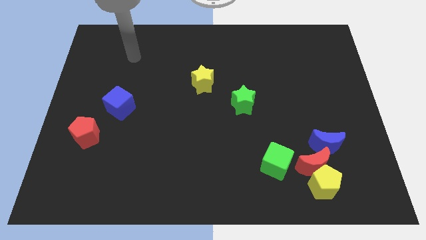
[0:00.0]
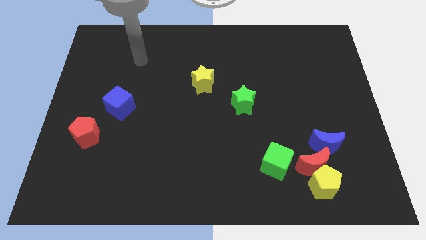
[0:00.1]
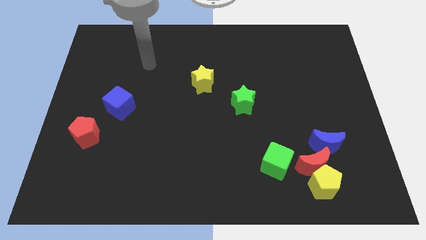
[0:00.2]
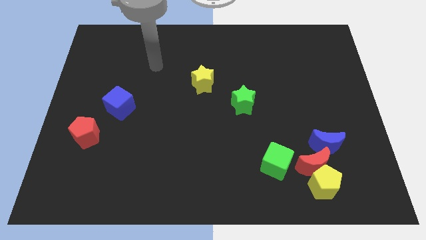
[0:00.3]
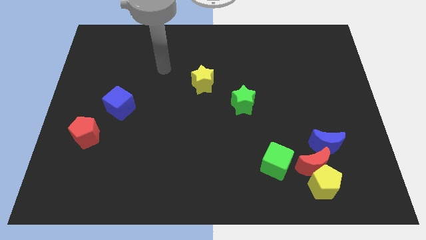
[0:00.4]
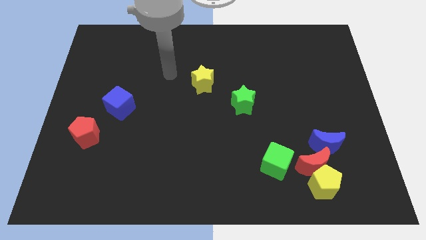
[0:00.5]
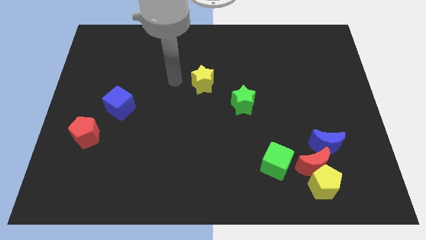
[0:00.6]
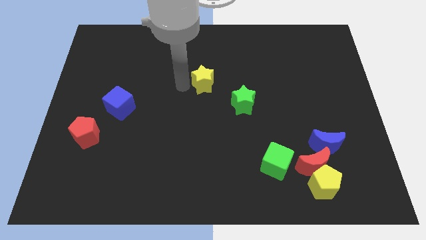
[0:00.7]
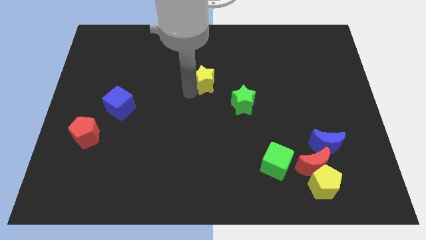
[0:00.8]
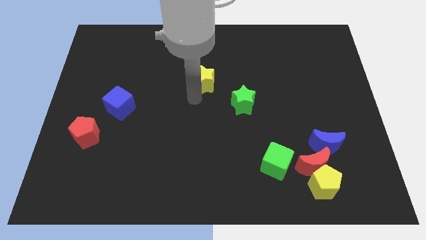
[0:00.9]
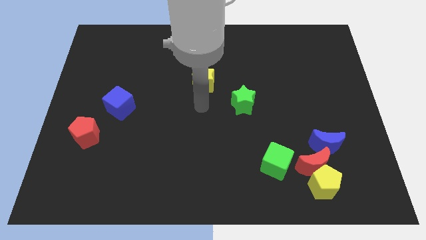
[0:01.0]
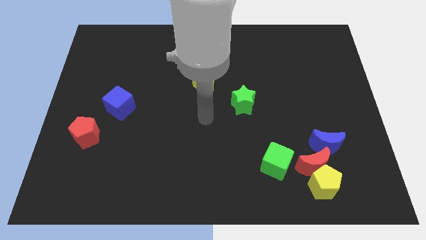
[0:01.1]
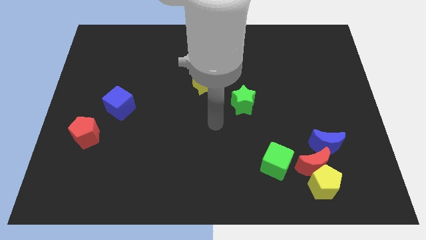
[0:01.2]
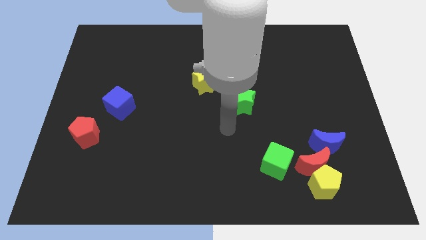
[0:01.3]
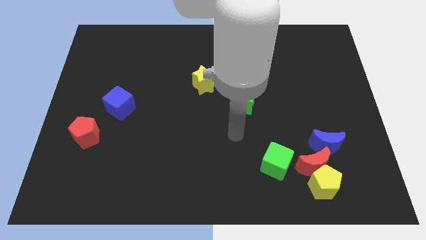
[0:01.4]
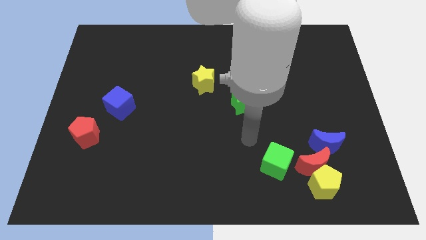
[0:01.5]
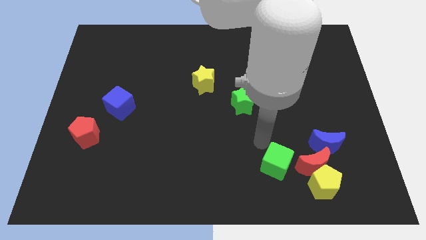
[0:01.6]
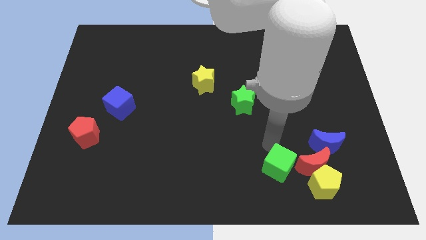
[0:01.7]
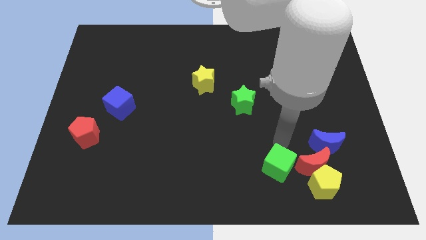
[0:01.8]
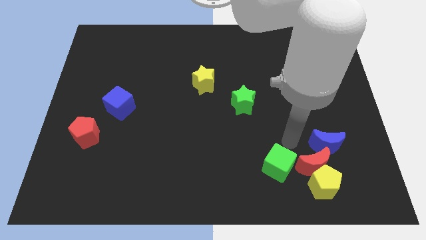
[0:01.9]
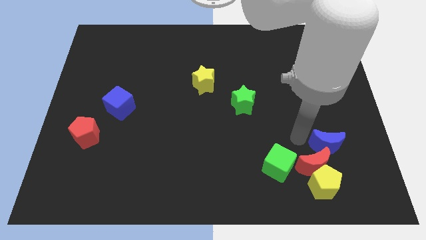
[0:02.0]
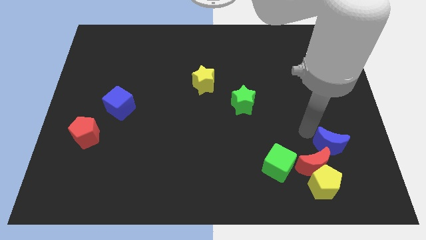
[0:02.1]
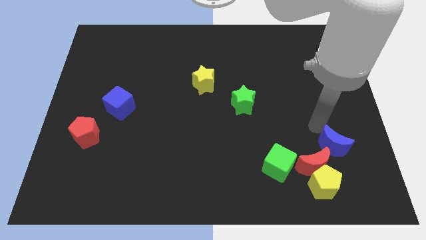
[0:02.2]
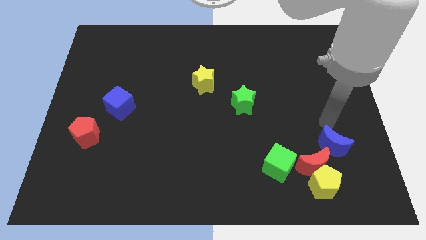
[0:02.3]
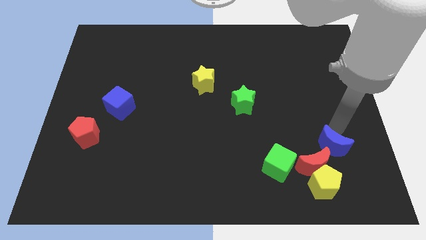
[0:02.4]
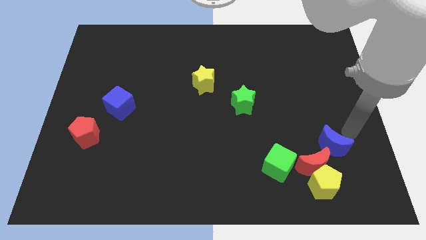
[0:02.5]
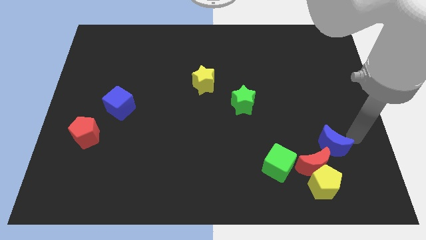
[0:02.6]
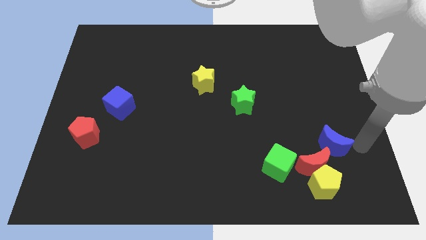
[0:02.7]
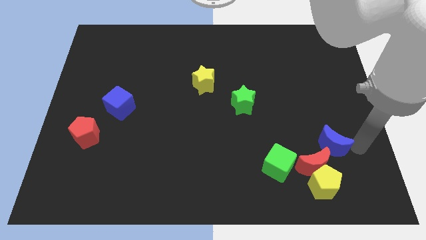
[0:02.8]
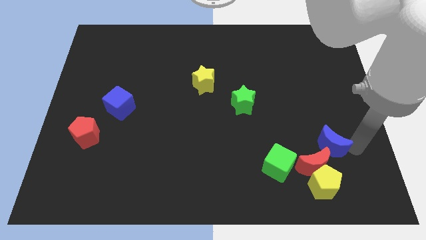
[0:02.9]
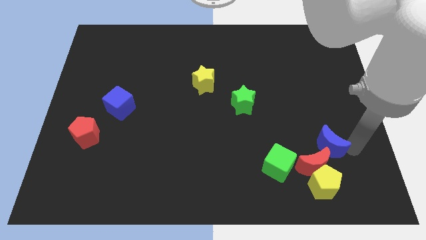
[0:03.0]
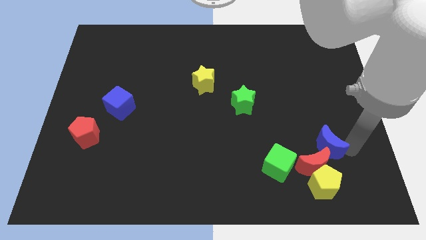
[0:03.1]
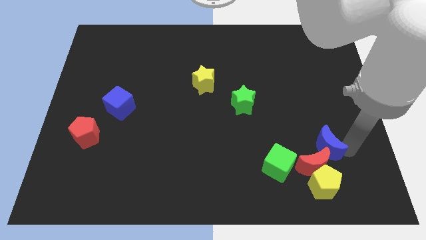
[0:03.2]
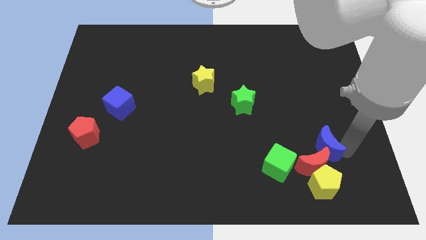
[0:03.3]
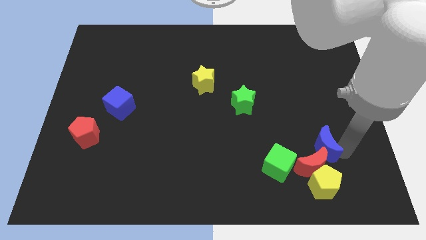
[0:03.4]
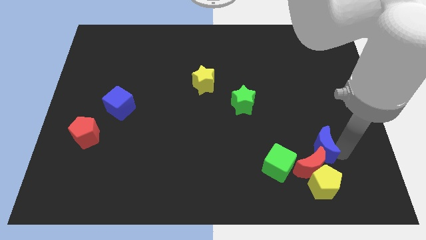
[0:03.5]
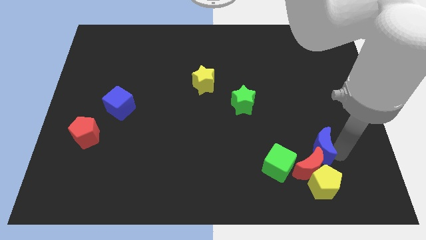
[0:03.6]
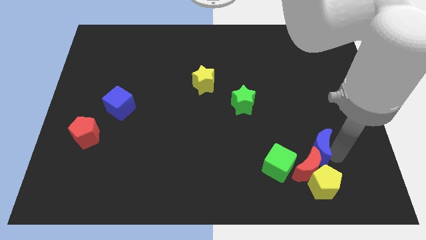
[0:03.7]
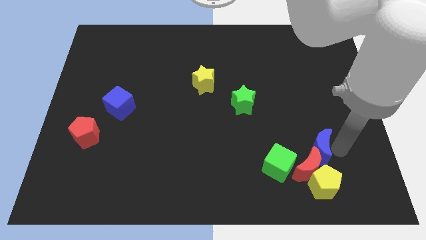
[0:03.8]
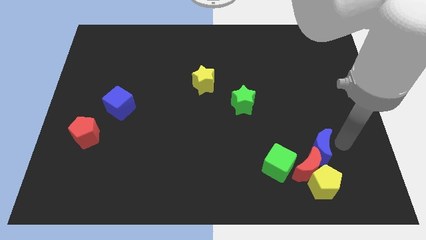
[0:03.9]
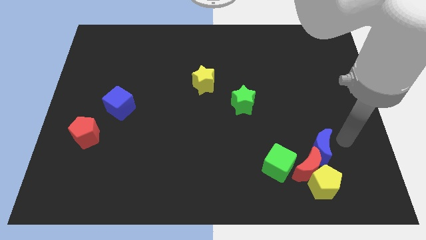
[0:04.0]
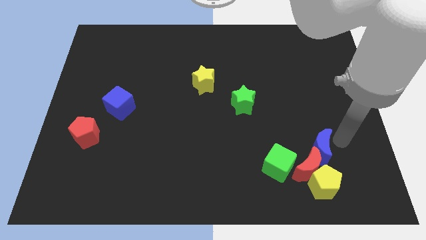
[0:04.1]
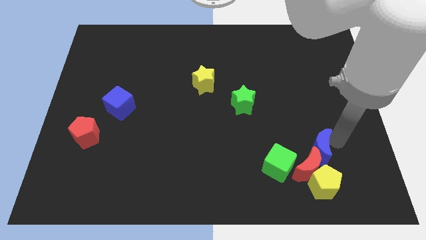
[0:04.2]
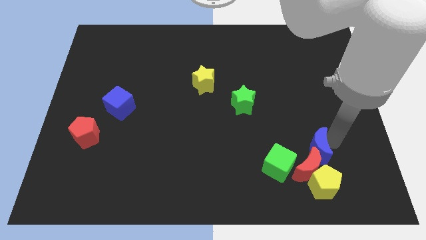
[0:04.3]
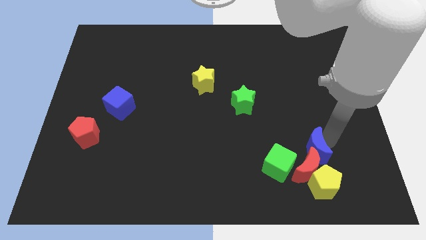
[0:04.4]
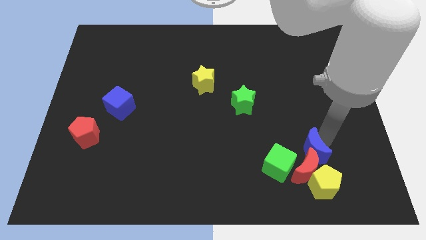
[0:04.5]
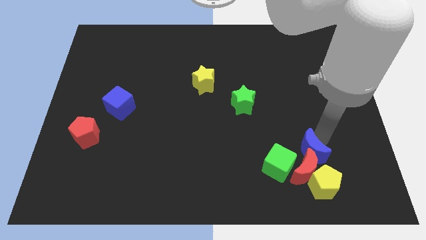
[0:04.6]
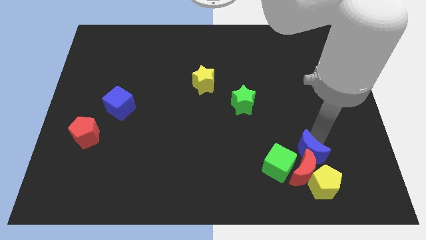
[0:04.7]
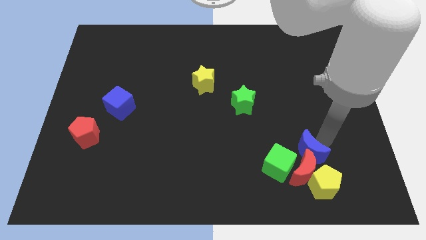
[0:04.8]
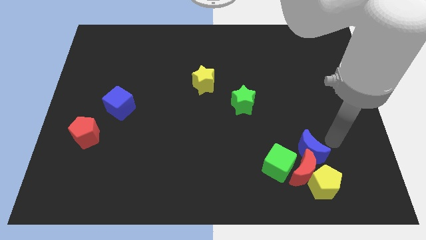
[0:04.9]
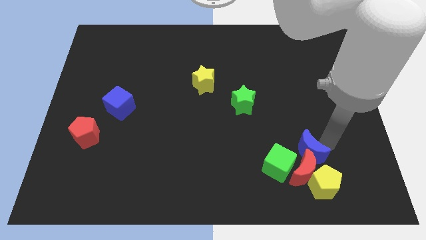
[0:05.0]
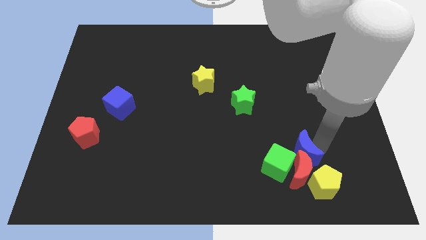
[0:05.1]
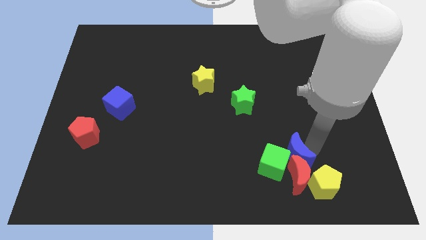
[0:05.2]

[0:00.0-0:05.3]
slide the blue moon towards the green cube

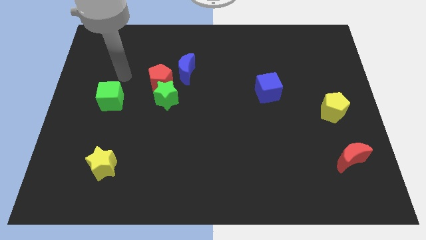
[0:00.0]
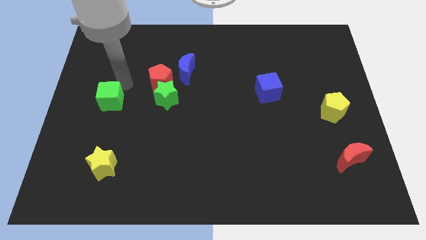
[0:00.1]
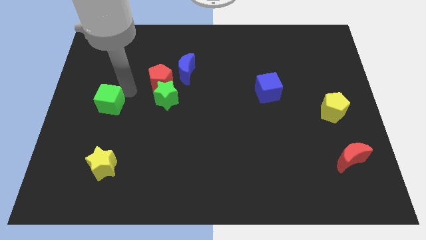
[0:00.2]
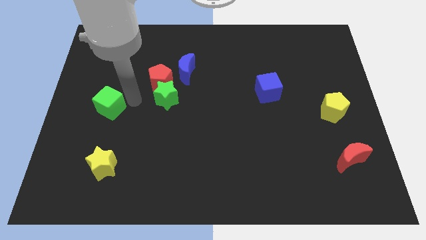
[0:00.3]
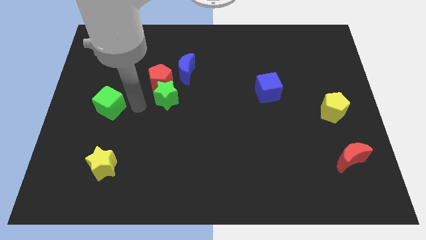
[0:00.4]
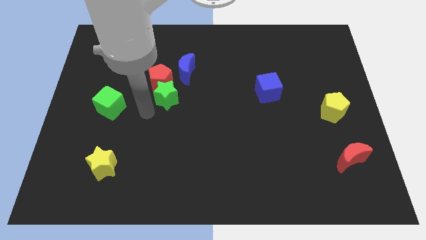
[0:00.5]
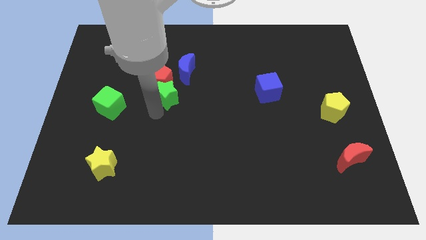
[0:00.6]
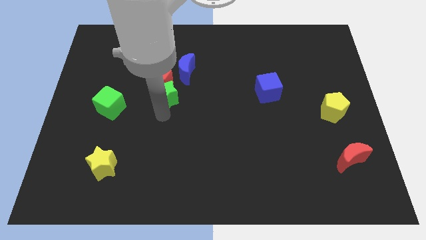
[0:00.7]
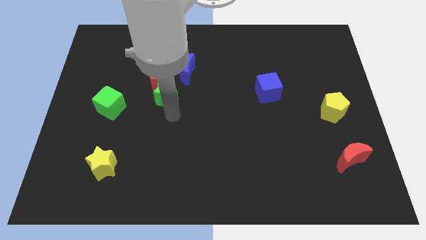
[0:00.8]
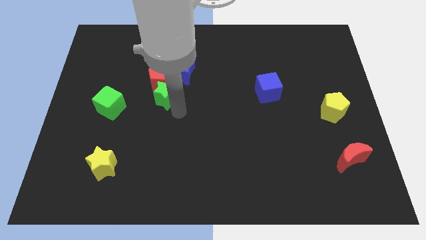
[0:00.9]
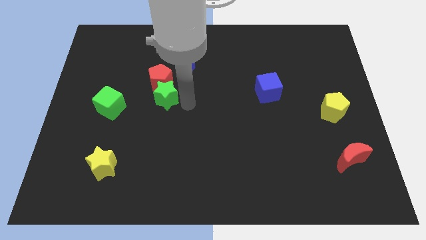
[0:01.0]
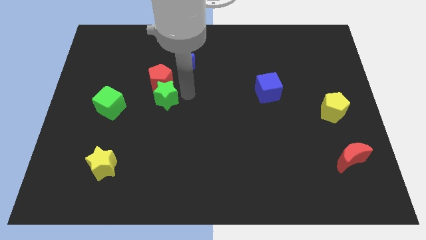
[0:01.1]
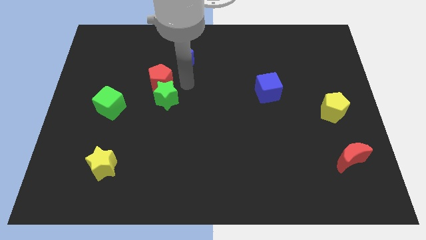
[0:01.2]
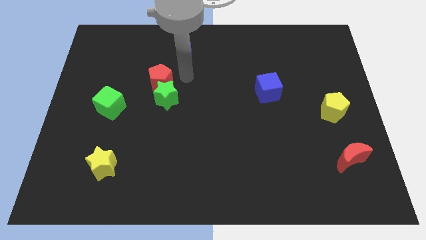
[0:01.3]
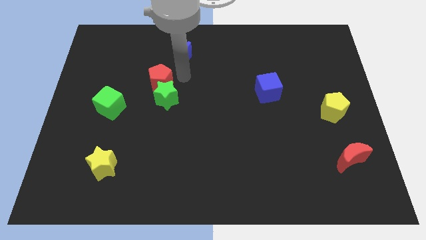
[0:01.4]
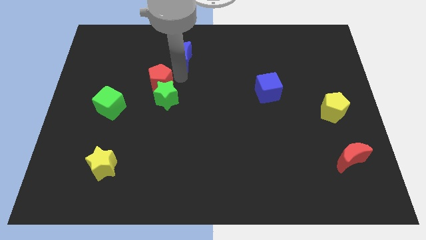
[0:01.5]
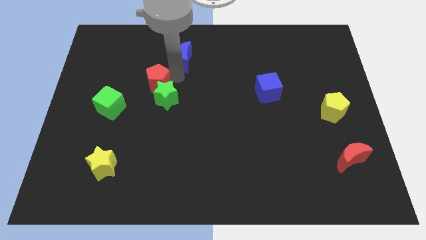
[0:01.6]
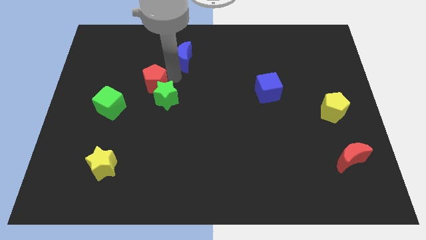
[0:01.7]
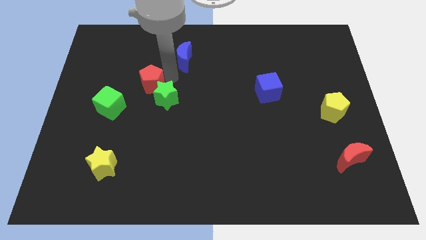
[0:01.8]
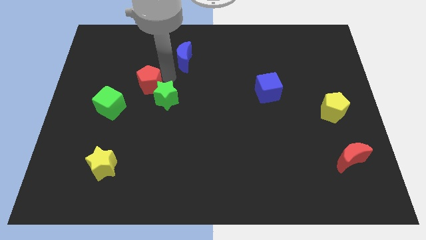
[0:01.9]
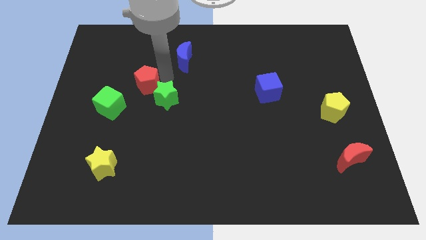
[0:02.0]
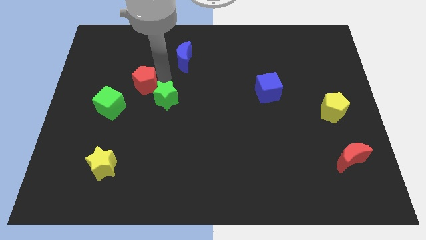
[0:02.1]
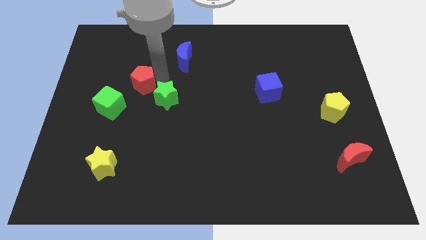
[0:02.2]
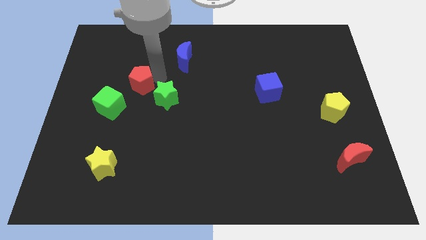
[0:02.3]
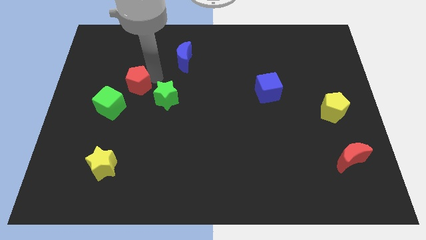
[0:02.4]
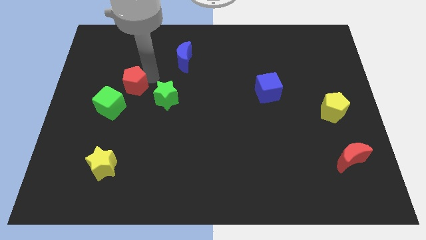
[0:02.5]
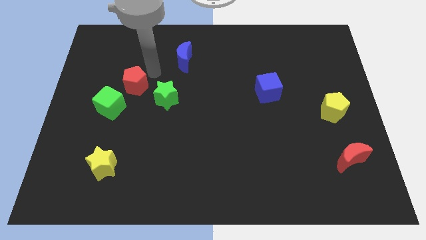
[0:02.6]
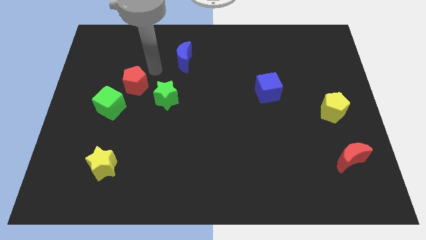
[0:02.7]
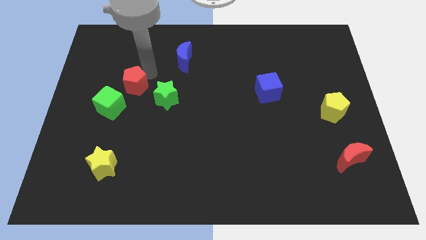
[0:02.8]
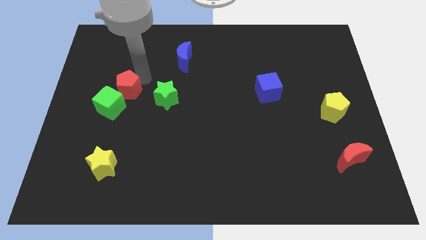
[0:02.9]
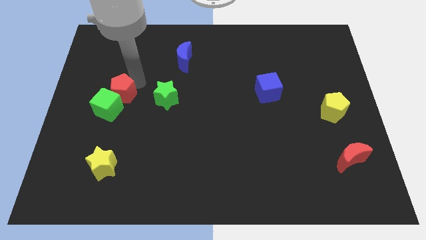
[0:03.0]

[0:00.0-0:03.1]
push the red pentagon towards the green cube
